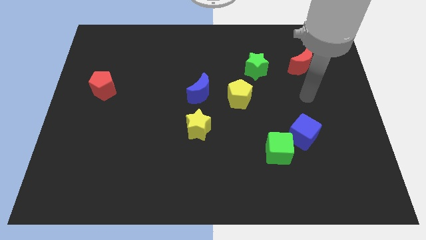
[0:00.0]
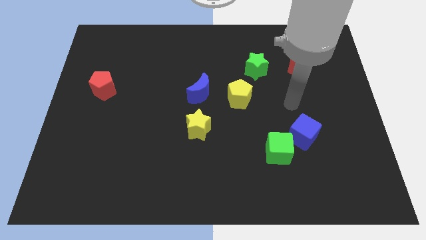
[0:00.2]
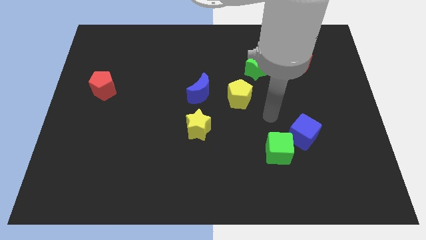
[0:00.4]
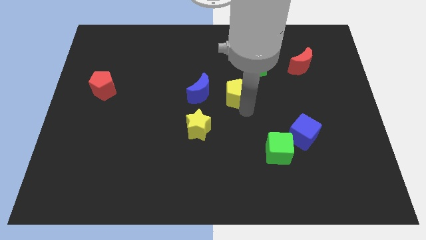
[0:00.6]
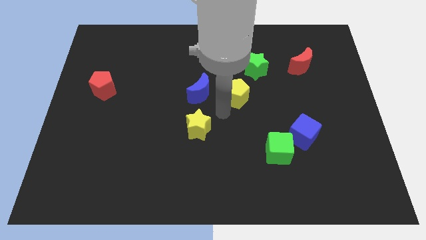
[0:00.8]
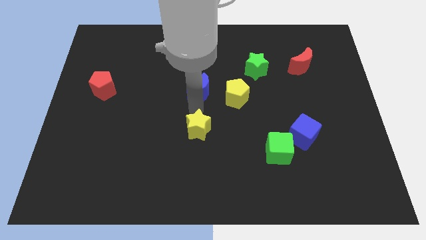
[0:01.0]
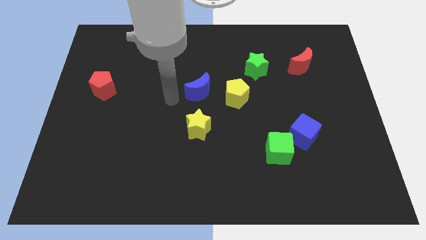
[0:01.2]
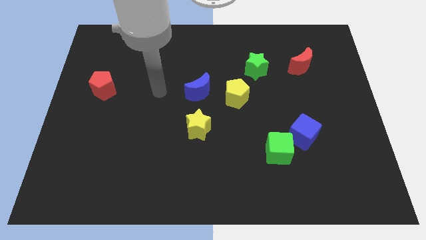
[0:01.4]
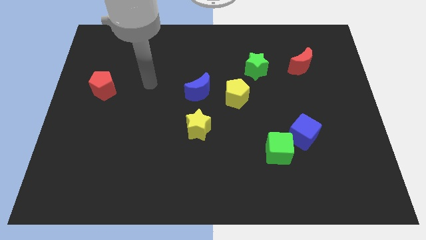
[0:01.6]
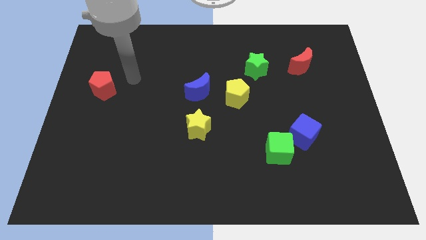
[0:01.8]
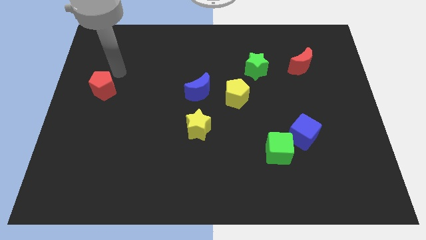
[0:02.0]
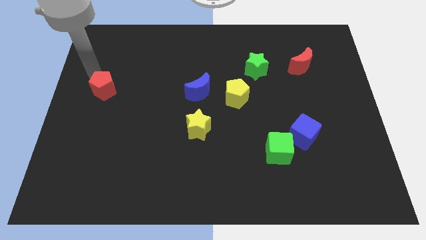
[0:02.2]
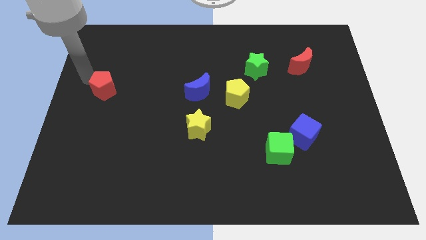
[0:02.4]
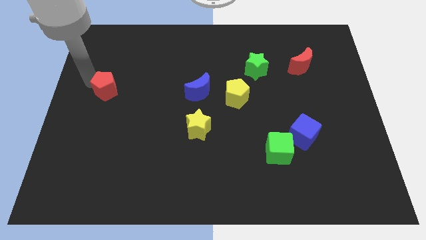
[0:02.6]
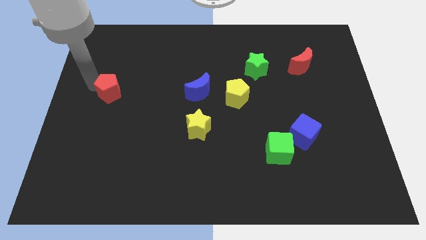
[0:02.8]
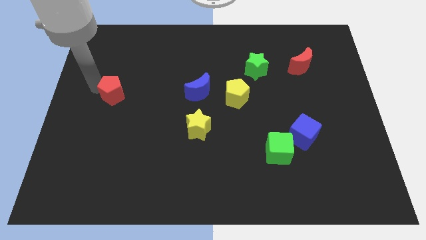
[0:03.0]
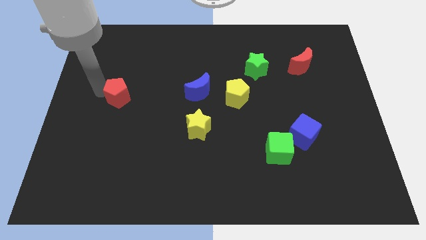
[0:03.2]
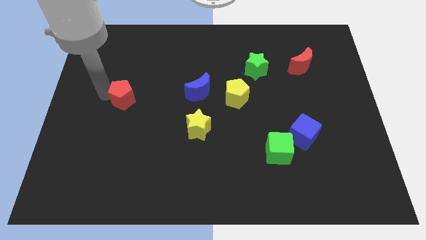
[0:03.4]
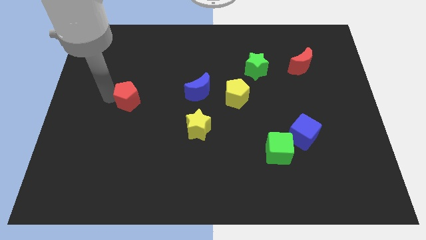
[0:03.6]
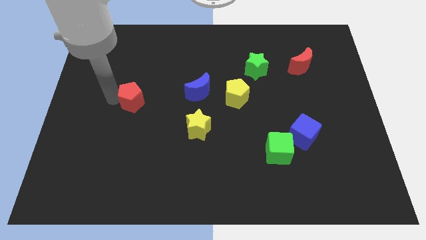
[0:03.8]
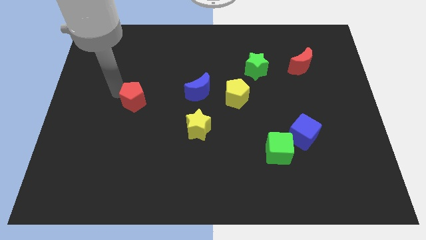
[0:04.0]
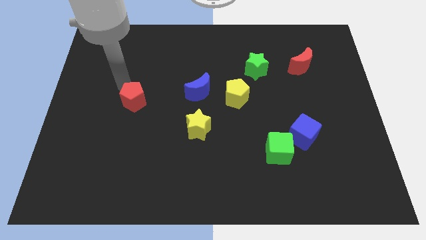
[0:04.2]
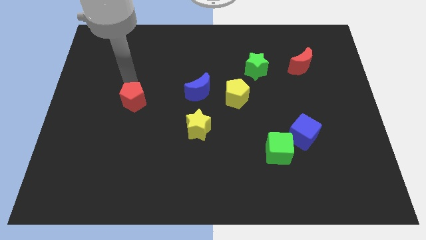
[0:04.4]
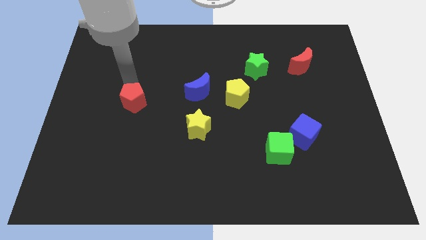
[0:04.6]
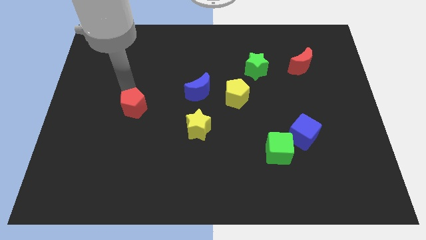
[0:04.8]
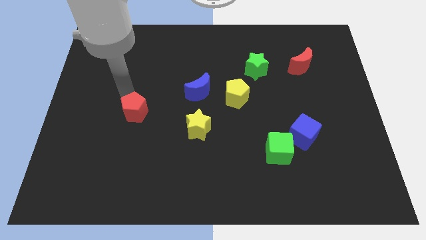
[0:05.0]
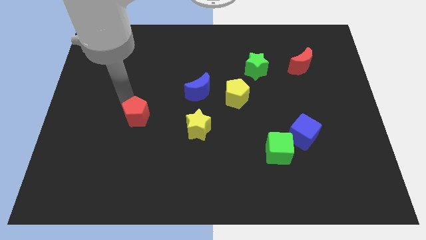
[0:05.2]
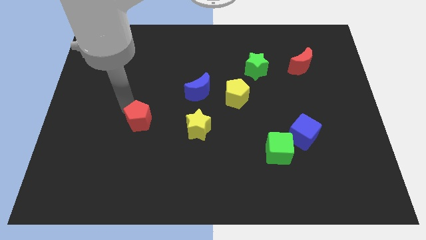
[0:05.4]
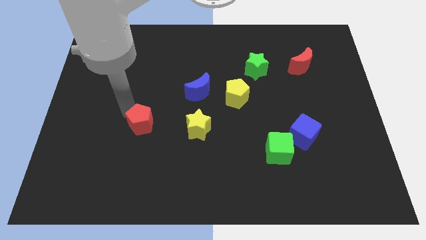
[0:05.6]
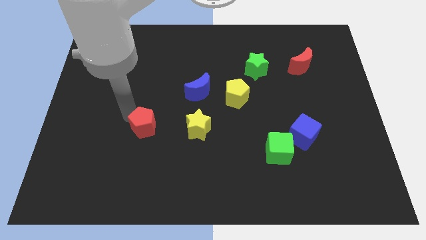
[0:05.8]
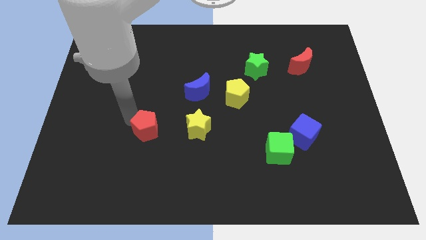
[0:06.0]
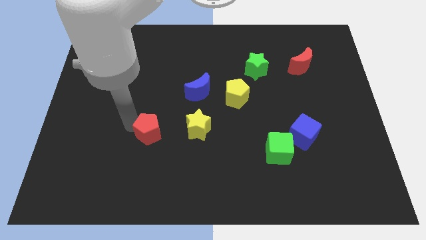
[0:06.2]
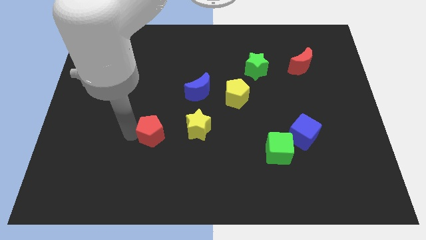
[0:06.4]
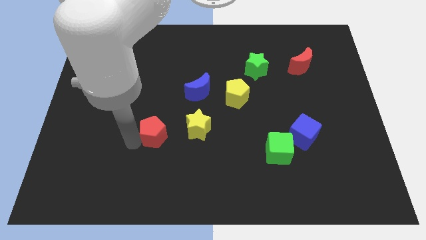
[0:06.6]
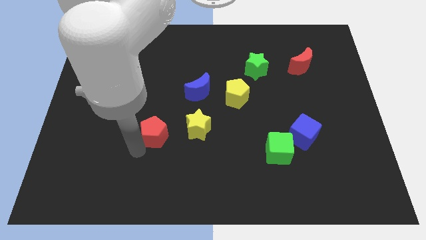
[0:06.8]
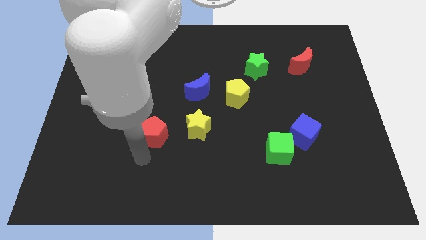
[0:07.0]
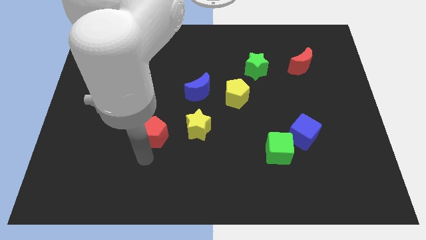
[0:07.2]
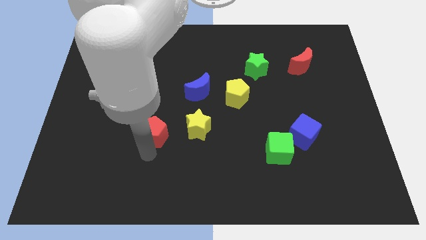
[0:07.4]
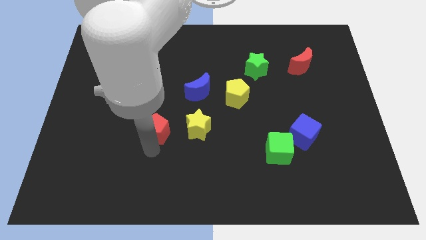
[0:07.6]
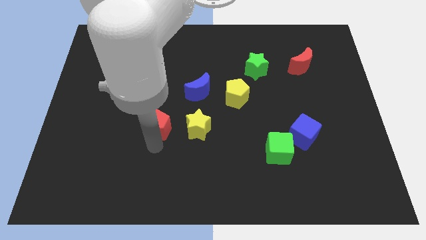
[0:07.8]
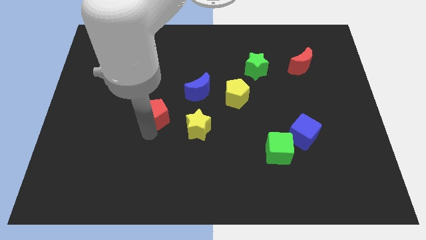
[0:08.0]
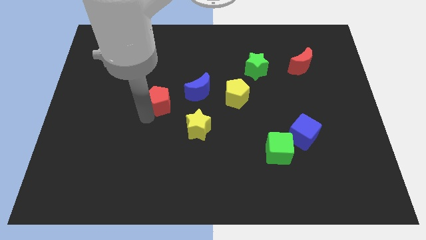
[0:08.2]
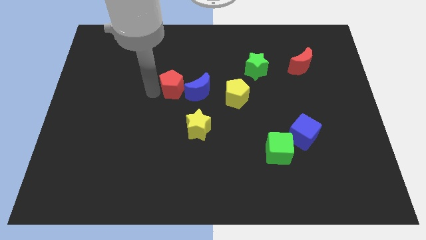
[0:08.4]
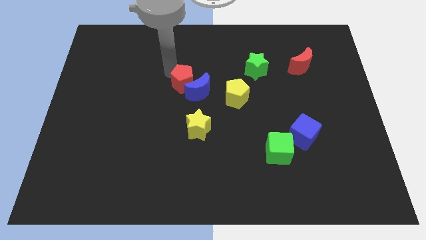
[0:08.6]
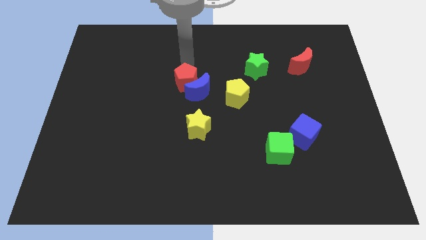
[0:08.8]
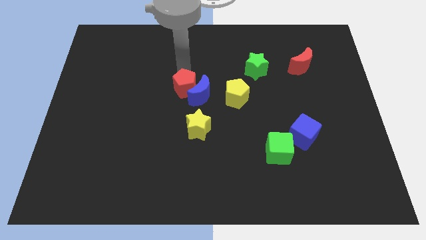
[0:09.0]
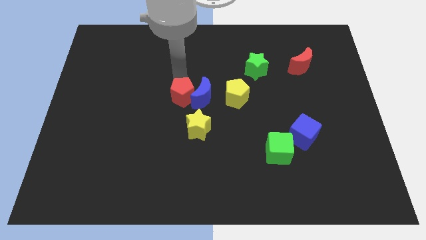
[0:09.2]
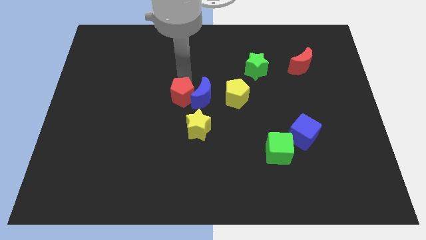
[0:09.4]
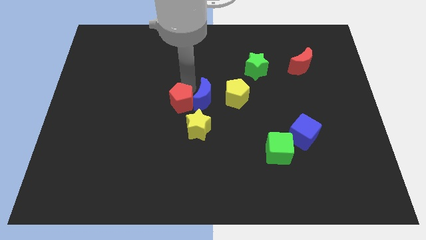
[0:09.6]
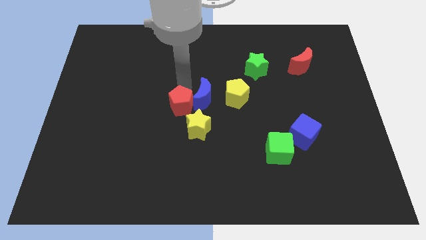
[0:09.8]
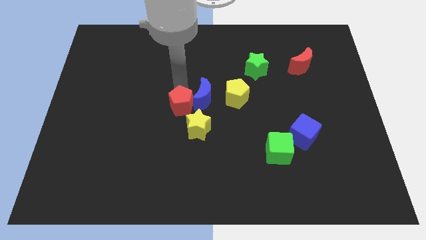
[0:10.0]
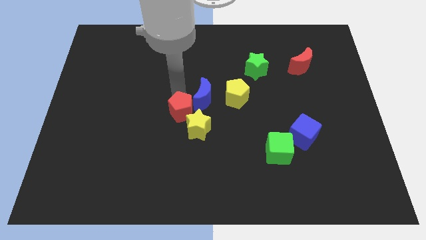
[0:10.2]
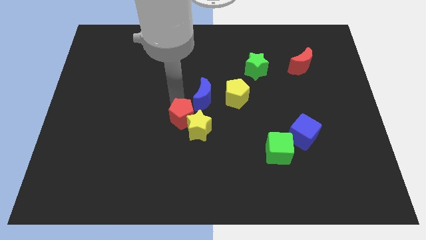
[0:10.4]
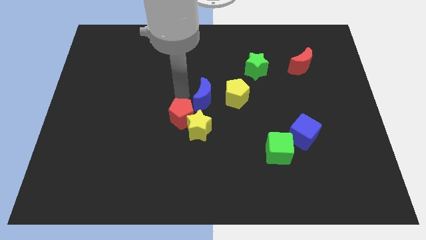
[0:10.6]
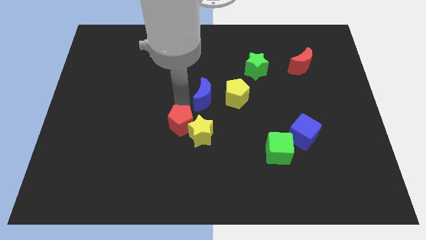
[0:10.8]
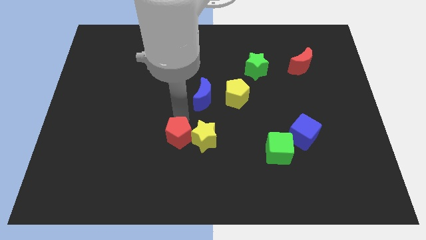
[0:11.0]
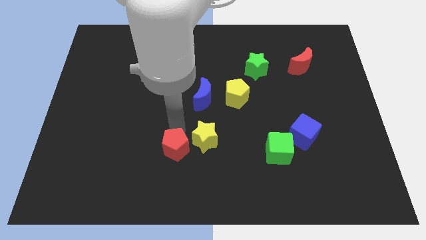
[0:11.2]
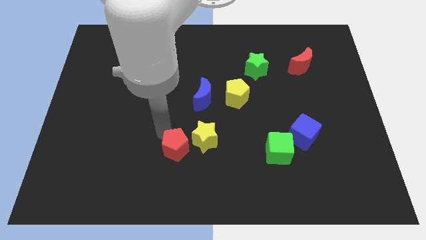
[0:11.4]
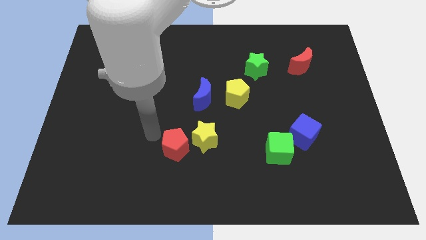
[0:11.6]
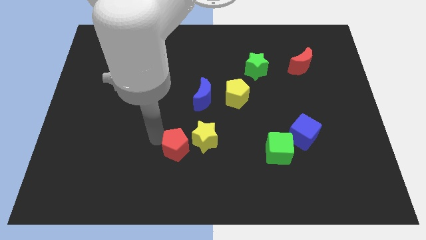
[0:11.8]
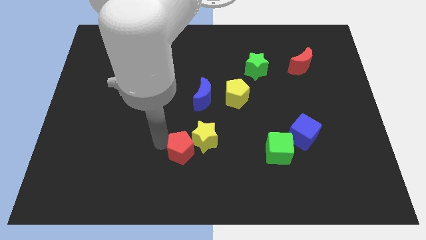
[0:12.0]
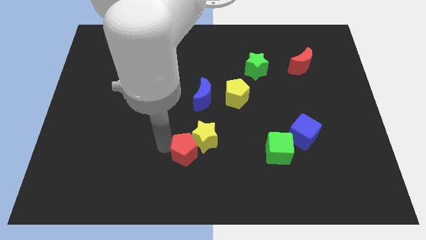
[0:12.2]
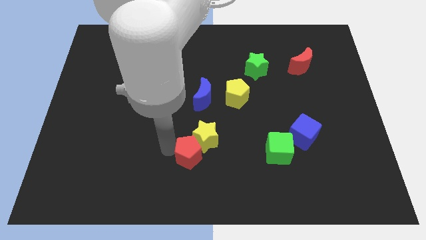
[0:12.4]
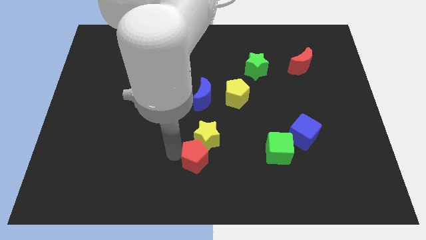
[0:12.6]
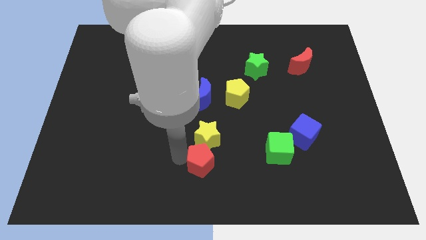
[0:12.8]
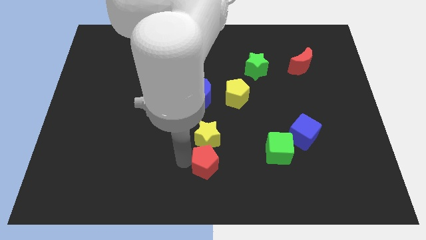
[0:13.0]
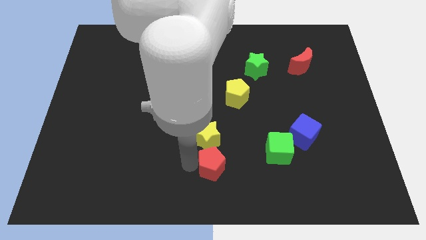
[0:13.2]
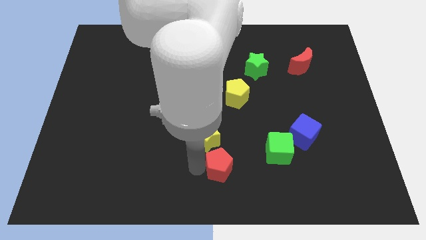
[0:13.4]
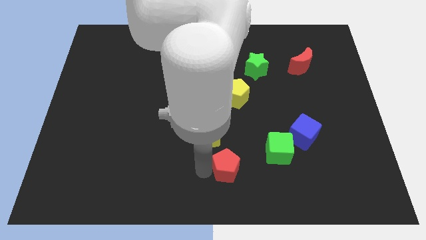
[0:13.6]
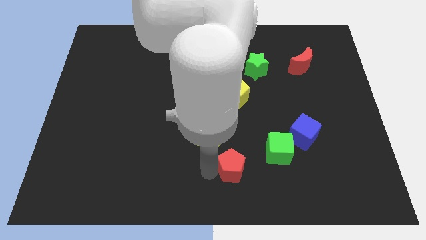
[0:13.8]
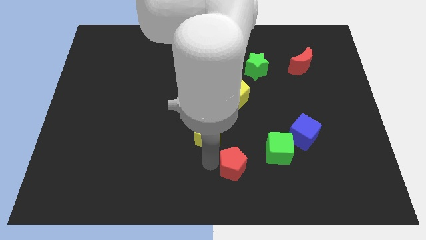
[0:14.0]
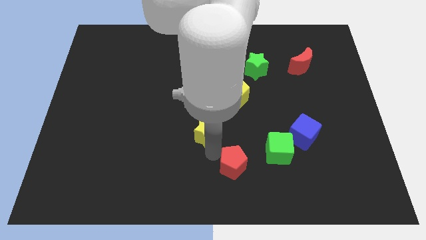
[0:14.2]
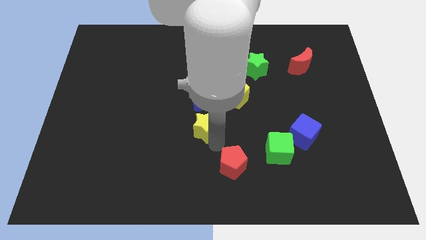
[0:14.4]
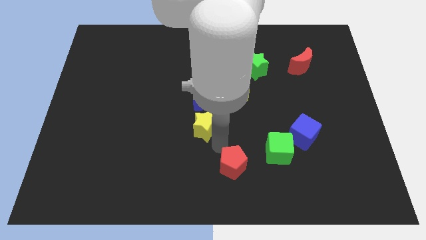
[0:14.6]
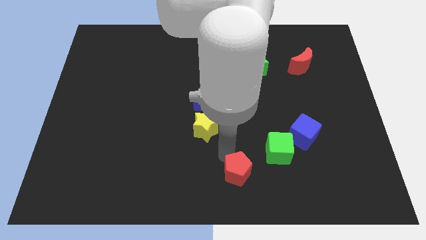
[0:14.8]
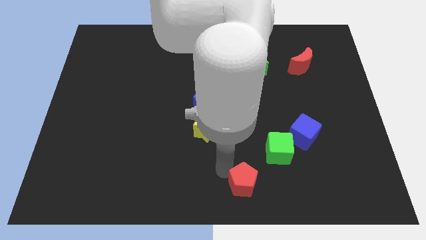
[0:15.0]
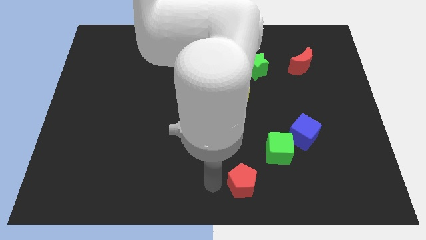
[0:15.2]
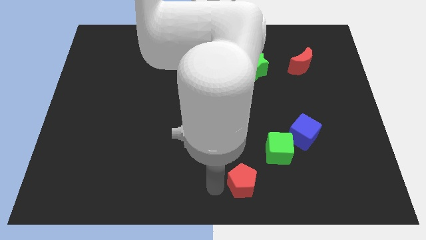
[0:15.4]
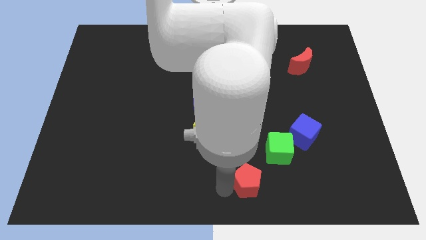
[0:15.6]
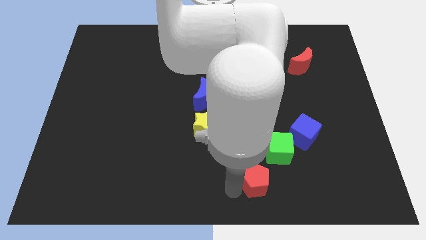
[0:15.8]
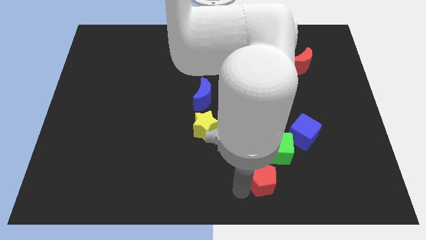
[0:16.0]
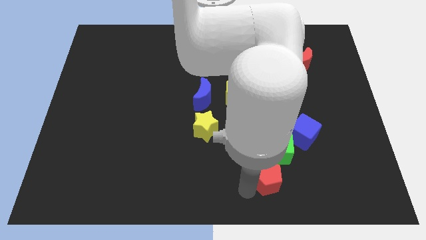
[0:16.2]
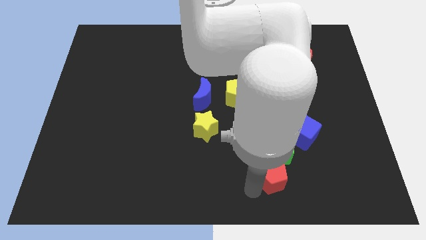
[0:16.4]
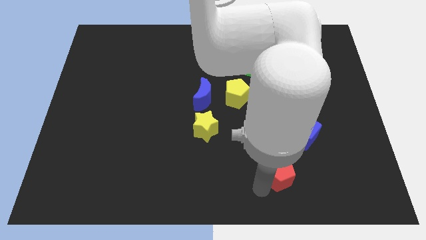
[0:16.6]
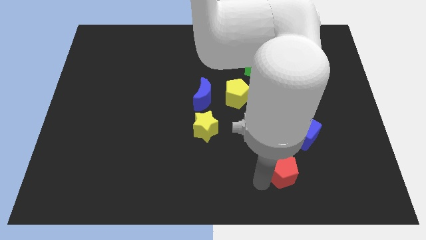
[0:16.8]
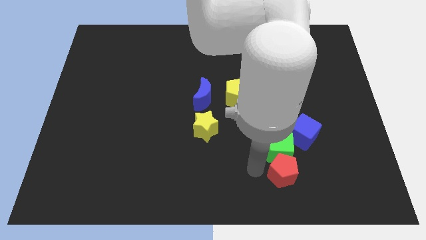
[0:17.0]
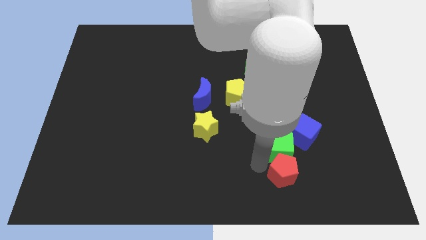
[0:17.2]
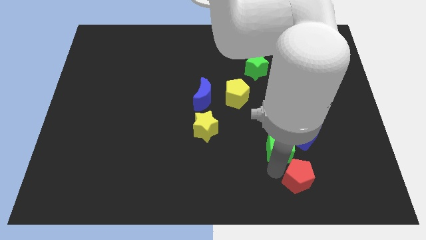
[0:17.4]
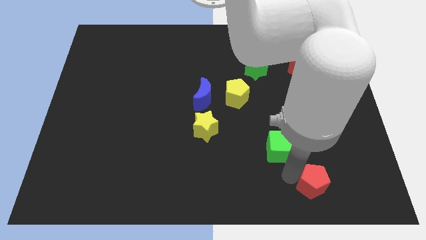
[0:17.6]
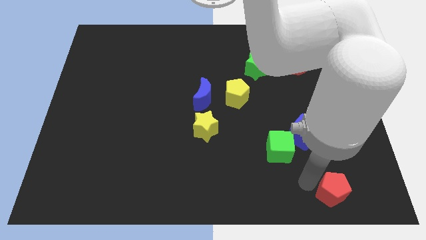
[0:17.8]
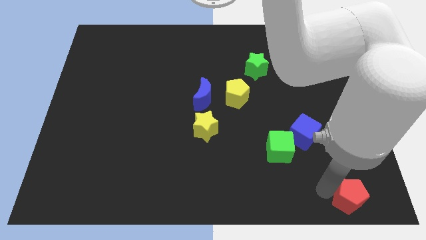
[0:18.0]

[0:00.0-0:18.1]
put the red pentagon to the bottom right corner
